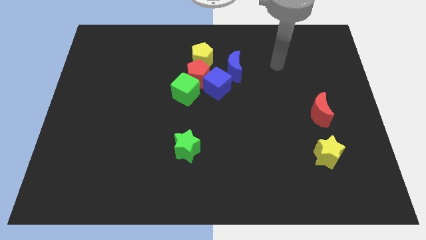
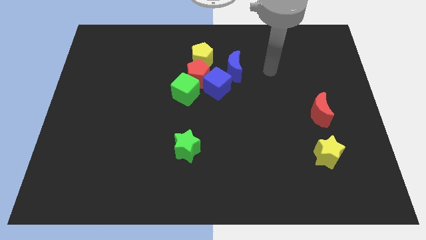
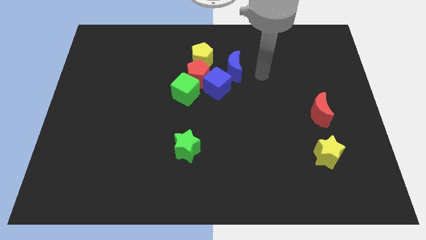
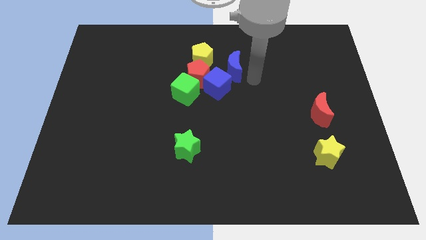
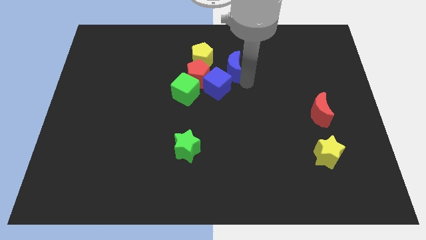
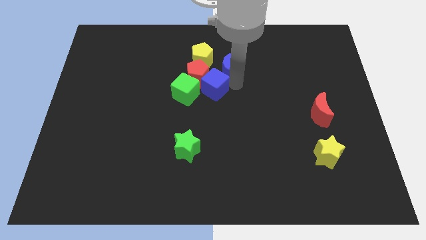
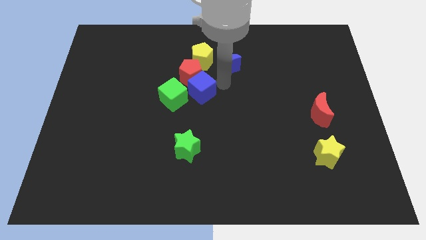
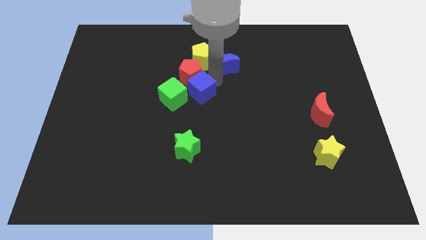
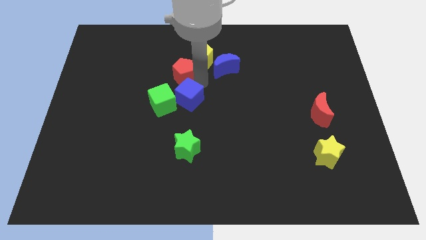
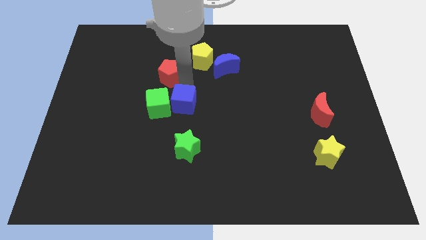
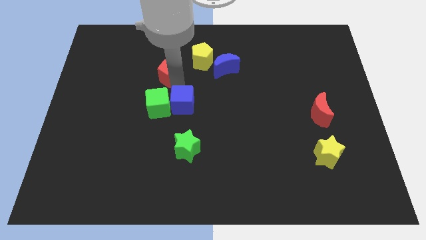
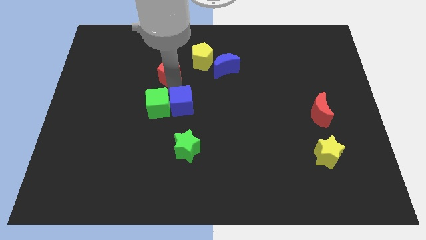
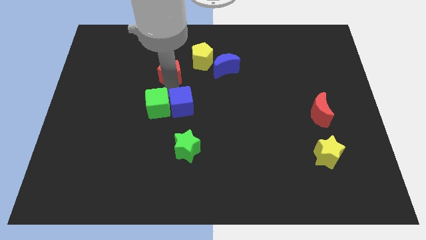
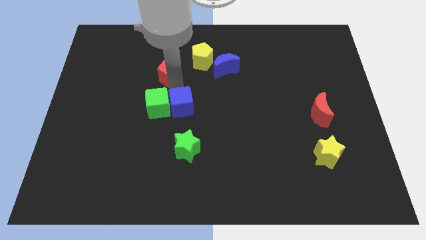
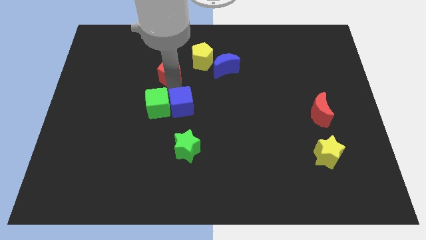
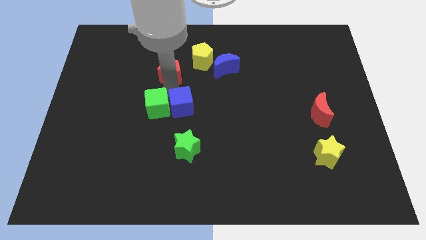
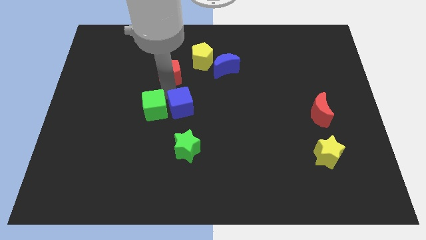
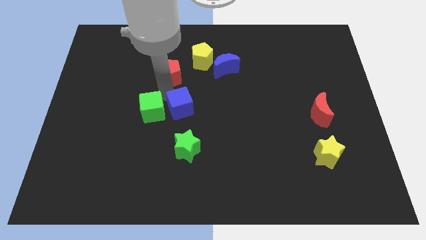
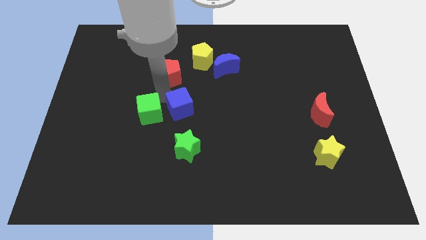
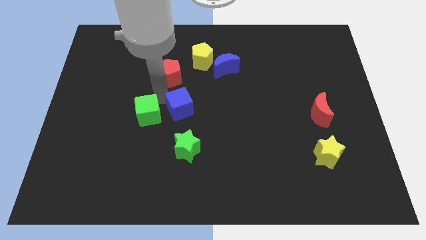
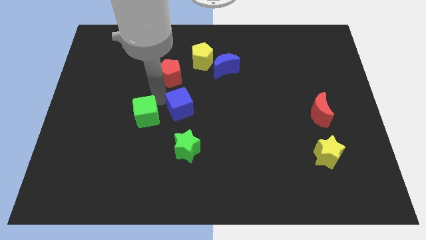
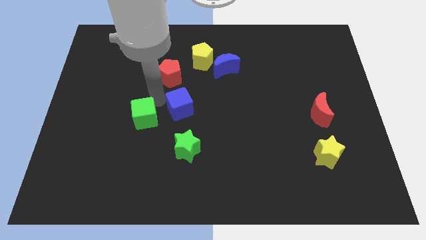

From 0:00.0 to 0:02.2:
separate the green cube from the red pentagon and blue cube

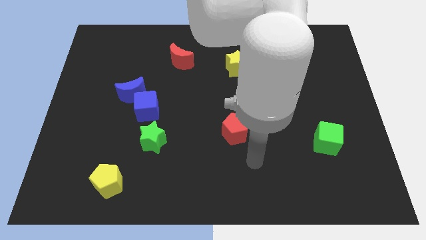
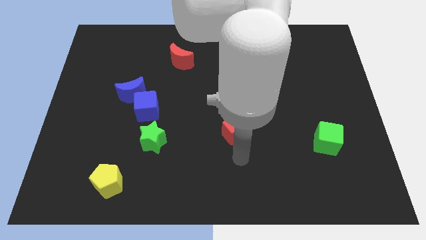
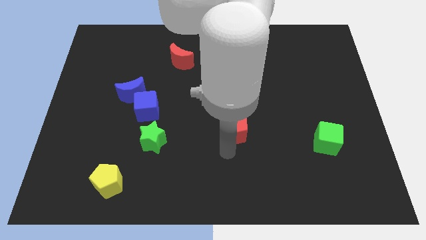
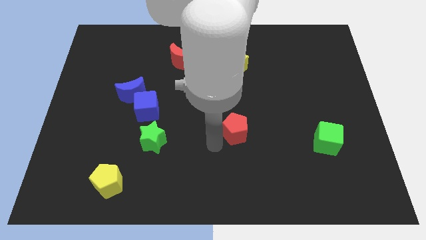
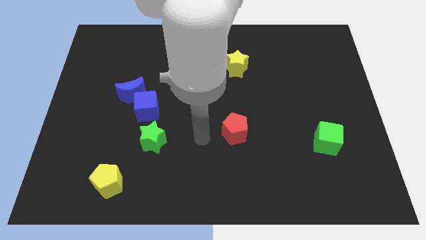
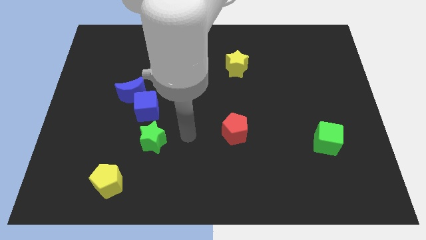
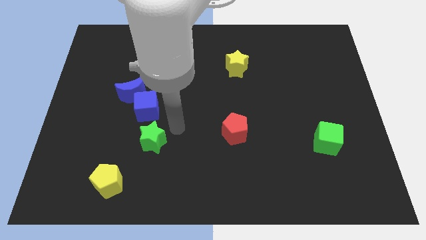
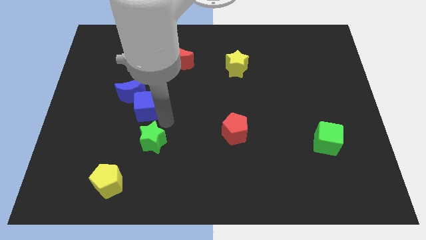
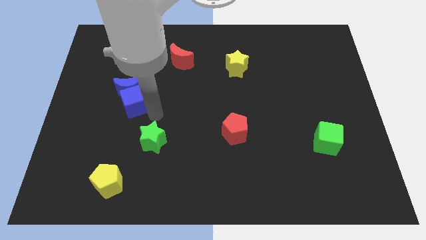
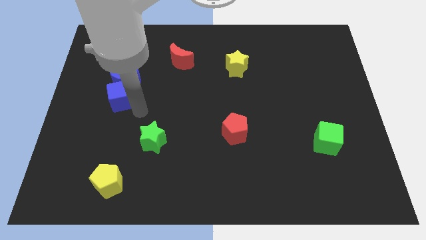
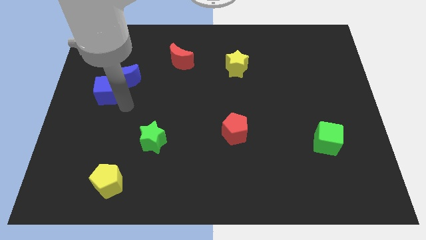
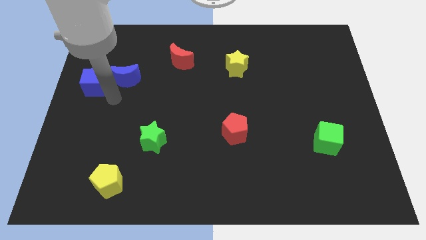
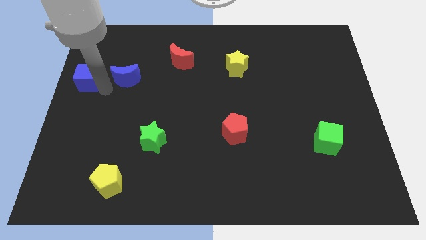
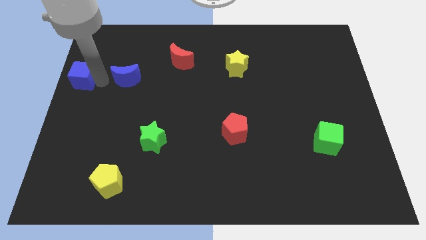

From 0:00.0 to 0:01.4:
pull the blue moon apart from the blue cube

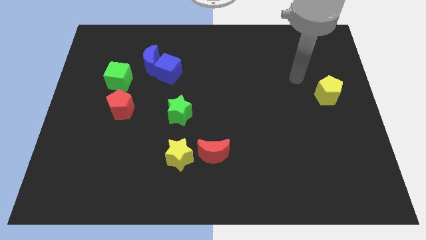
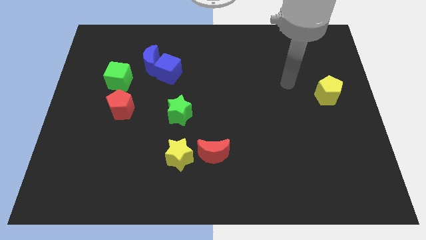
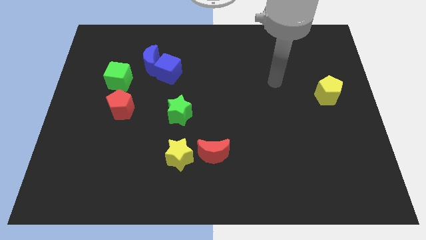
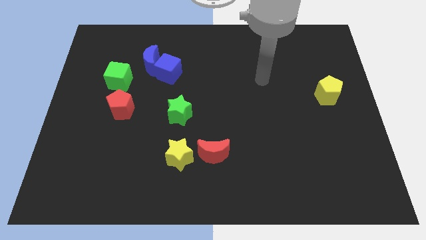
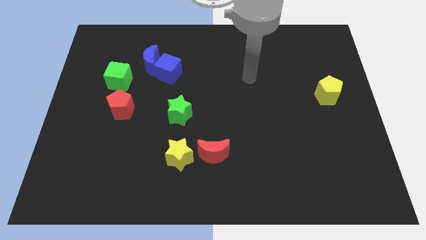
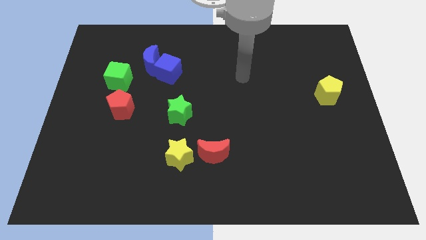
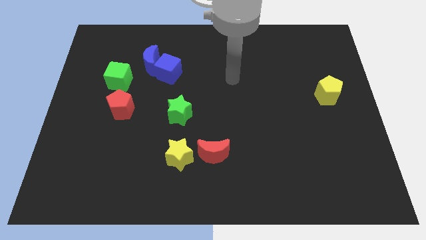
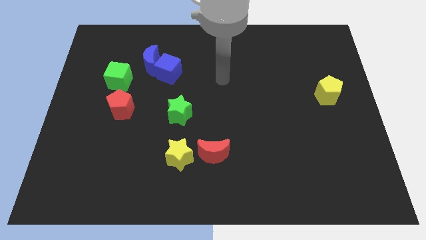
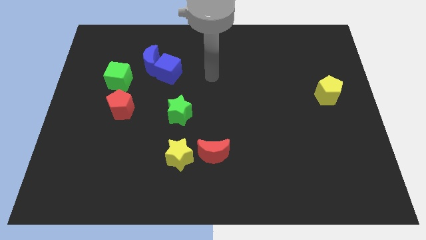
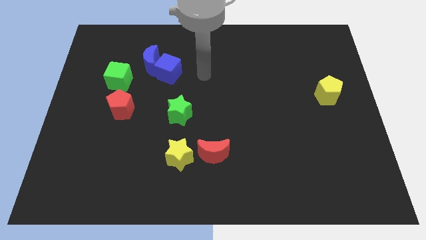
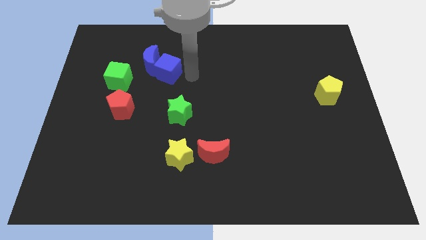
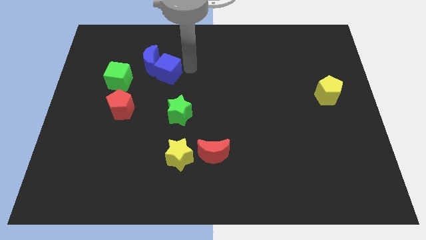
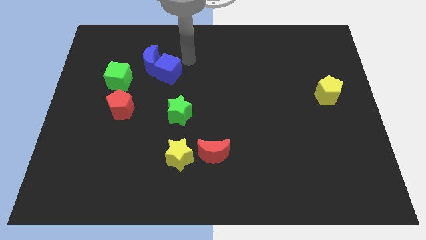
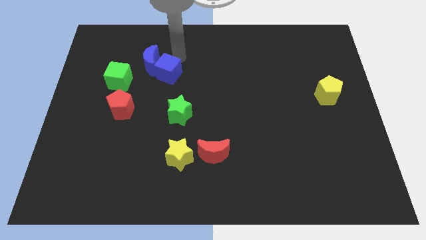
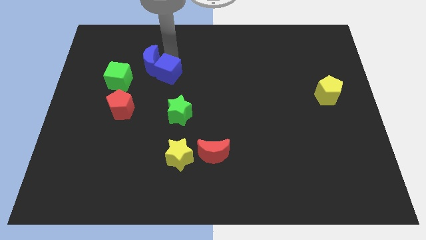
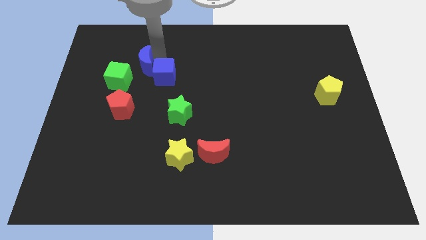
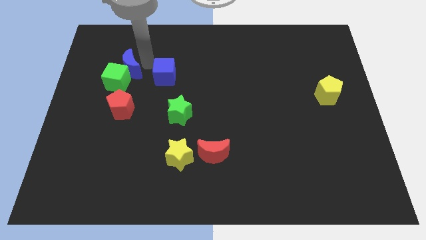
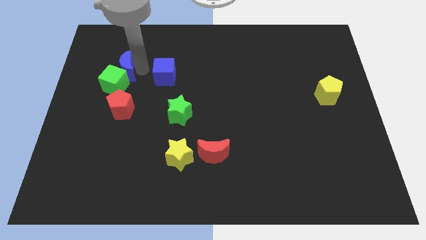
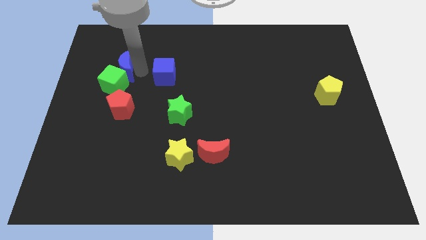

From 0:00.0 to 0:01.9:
pull the blue cube apart from the blue moon

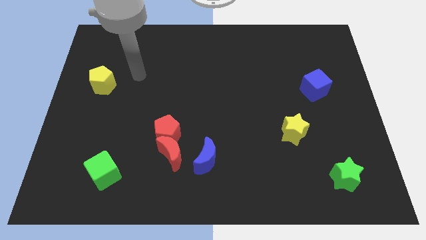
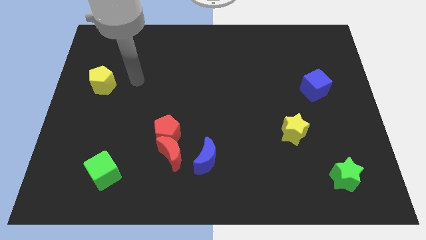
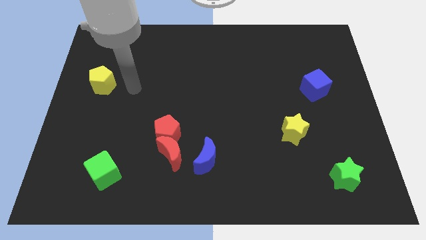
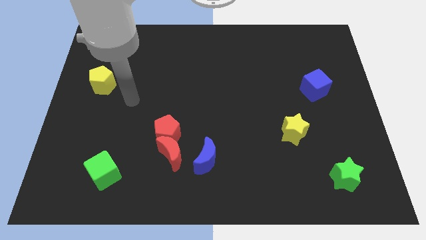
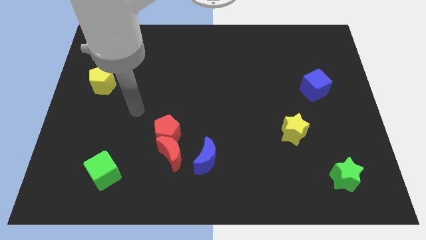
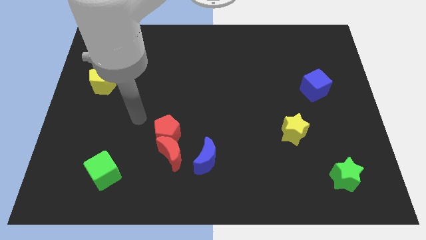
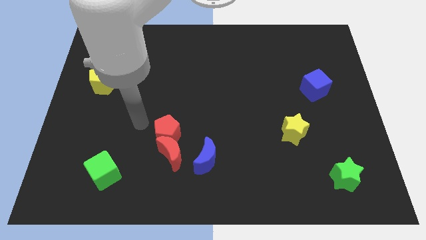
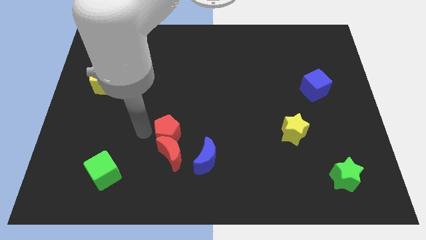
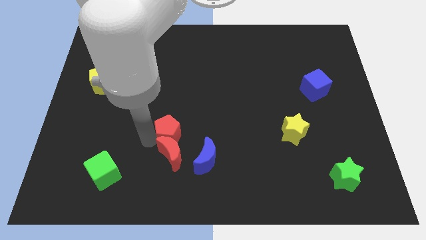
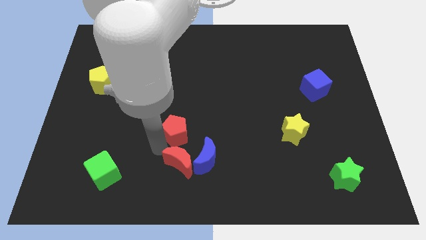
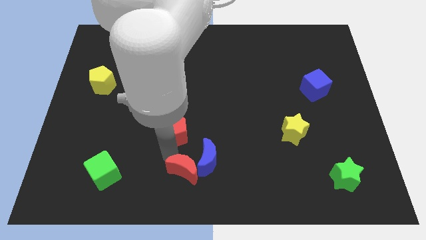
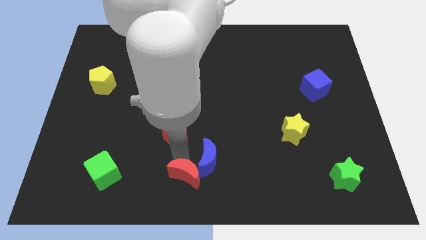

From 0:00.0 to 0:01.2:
move the red pentagon away from the red moon

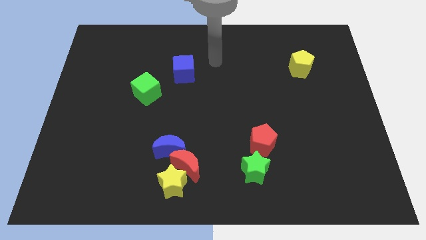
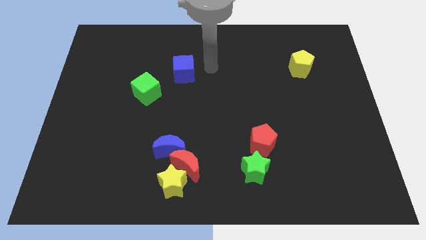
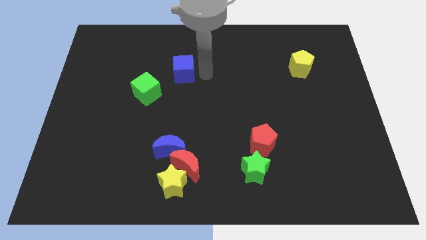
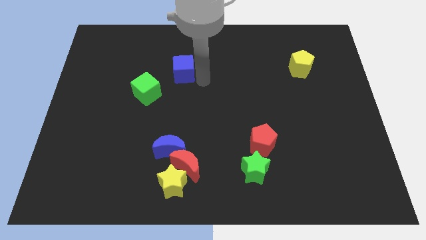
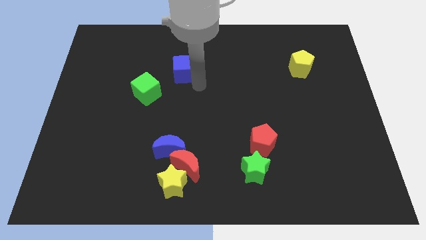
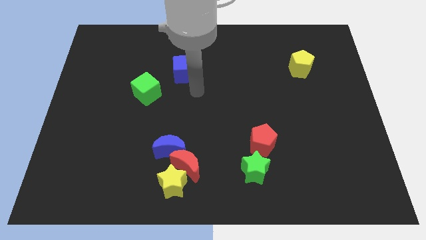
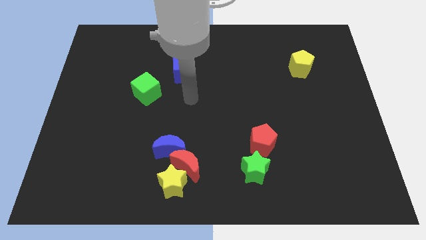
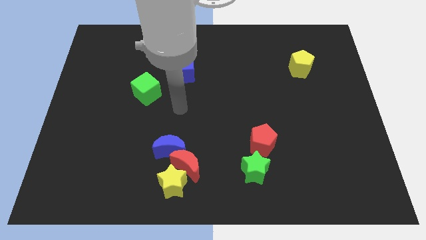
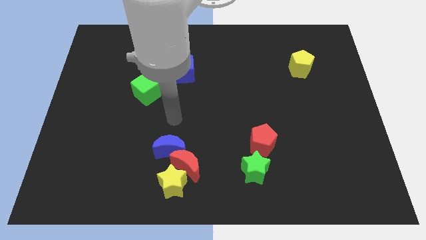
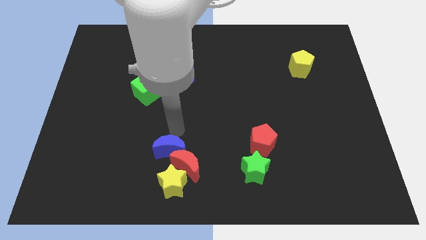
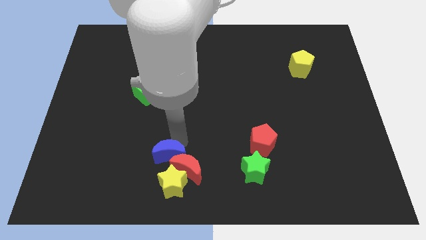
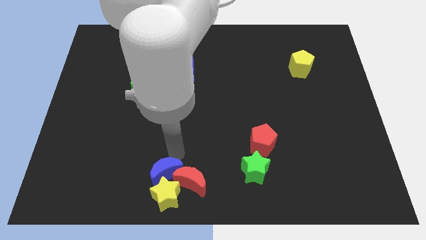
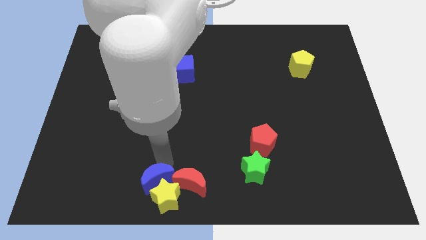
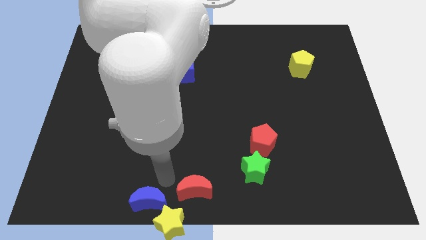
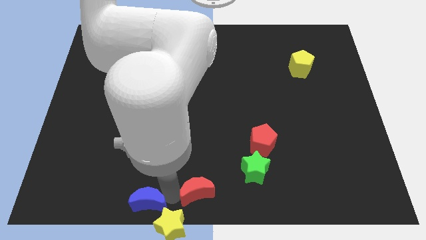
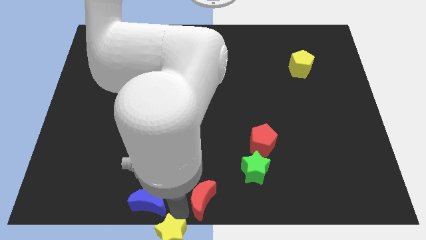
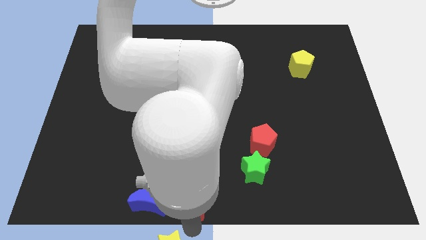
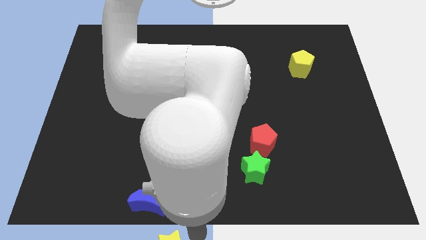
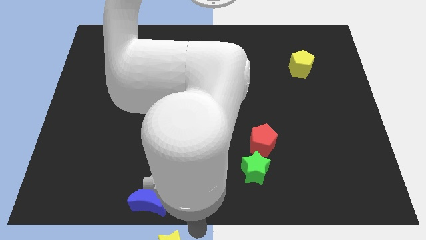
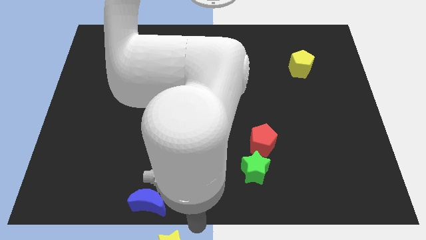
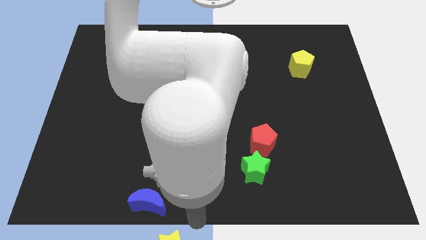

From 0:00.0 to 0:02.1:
pull the red moon apart from the yellow star and blue moon

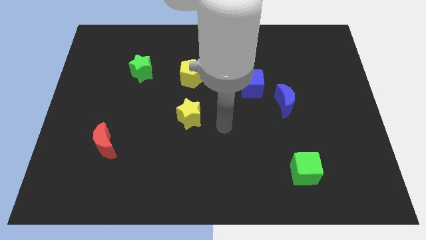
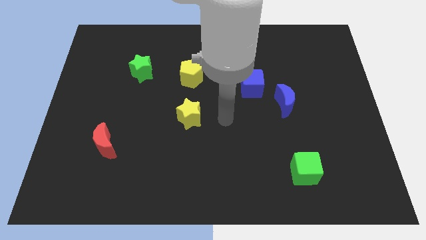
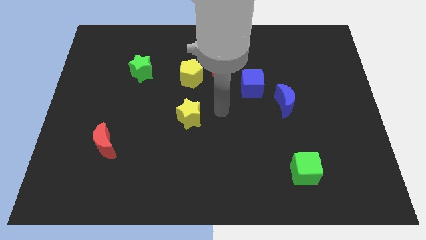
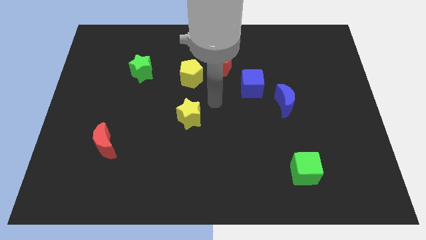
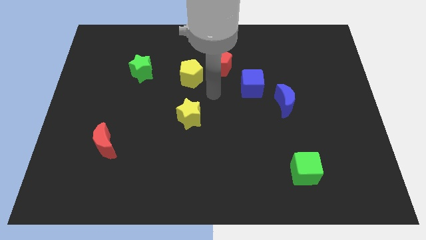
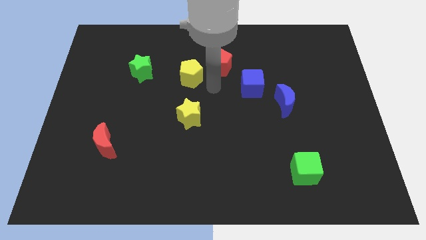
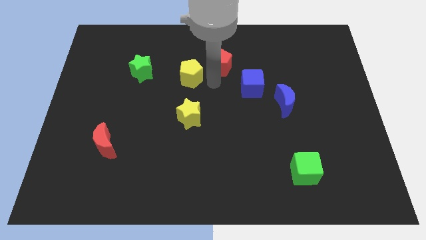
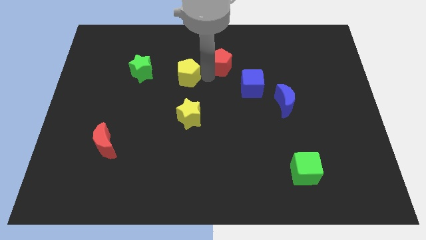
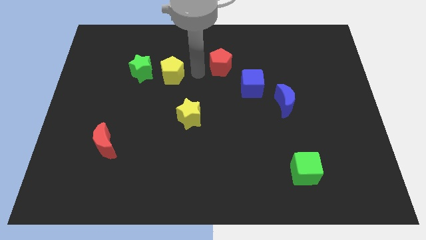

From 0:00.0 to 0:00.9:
separate the red pentagon from the yellow pentagon
